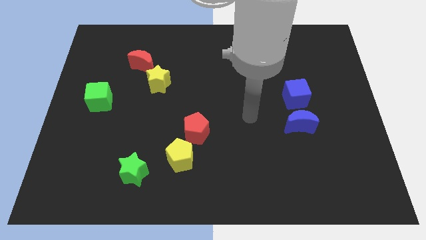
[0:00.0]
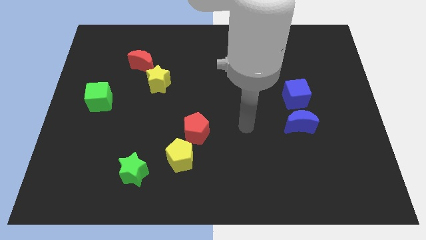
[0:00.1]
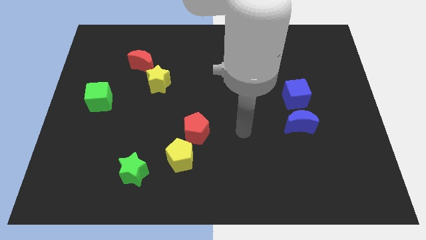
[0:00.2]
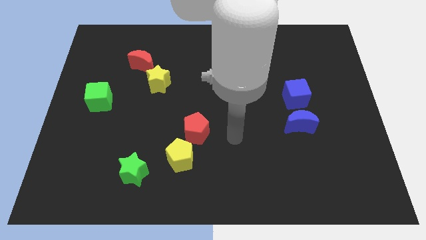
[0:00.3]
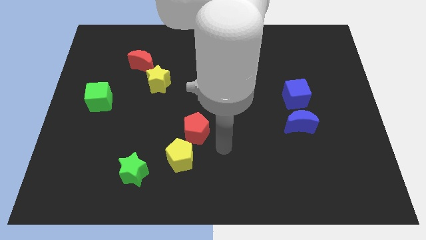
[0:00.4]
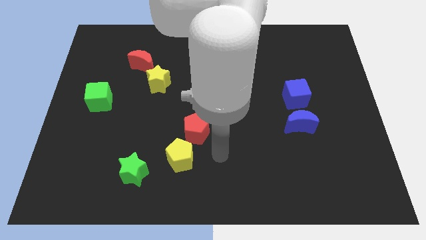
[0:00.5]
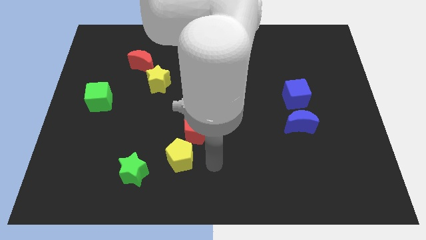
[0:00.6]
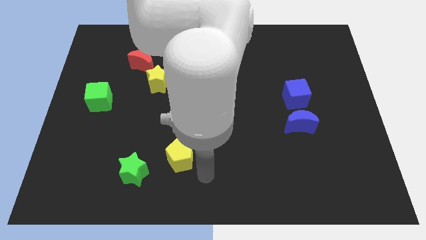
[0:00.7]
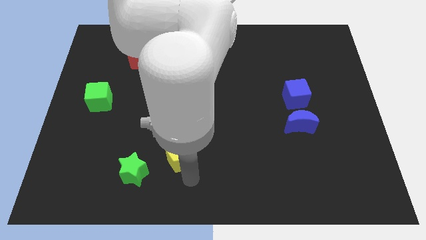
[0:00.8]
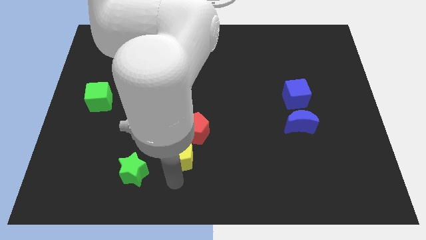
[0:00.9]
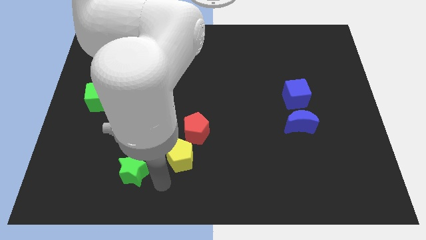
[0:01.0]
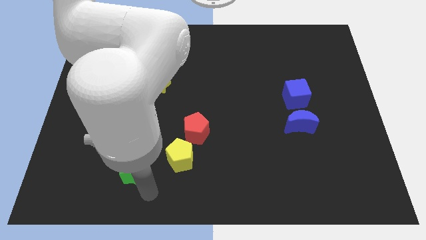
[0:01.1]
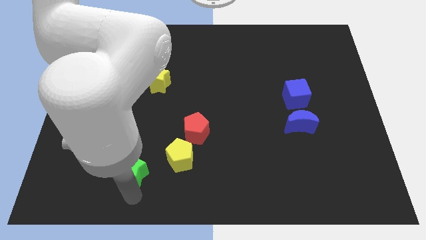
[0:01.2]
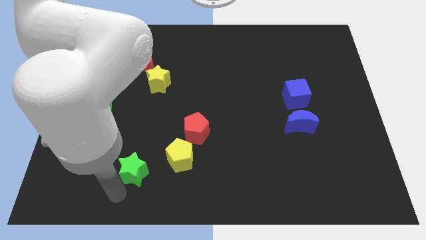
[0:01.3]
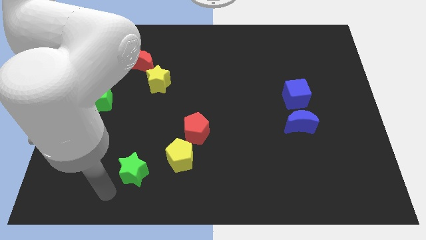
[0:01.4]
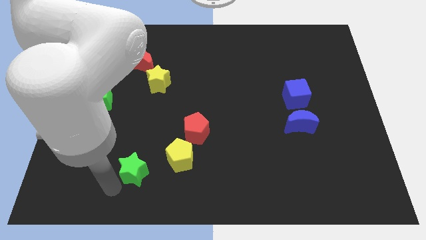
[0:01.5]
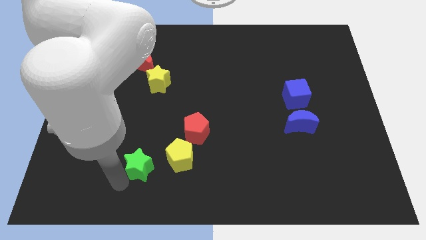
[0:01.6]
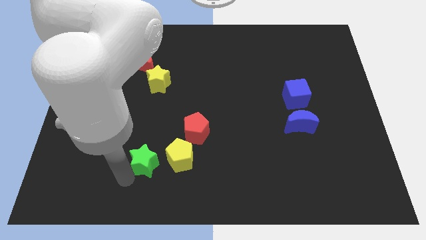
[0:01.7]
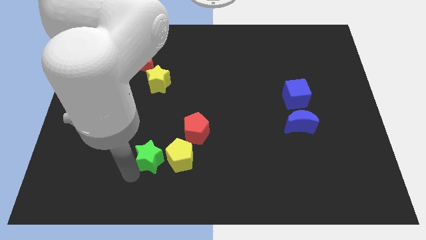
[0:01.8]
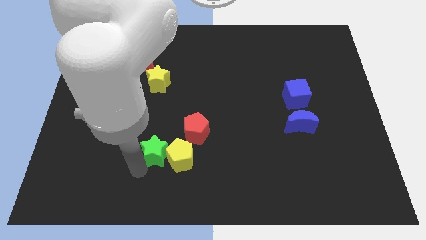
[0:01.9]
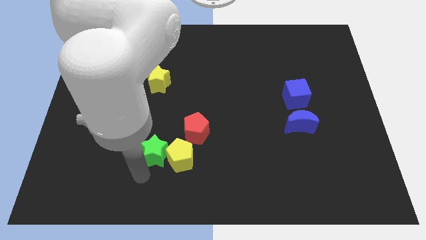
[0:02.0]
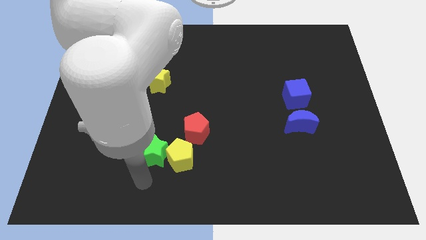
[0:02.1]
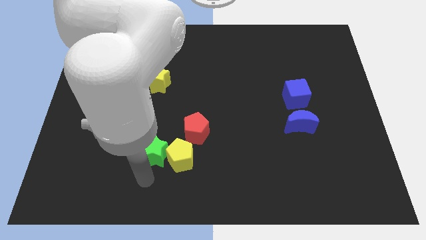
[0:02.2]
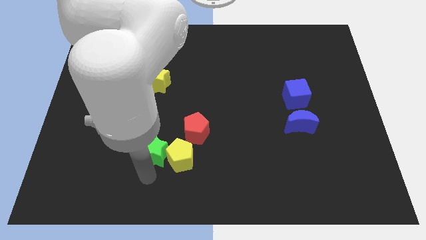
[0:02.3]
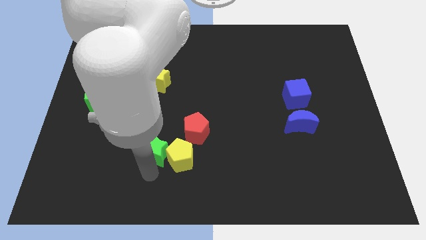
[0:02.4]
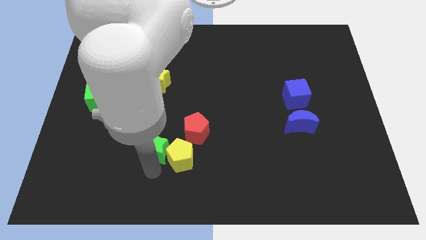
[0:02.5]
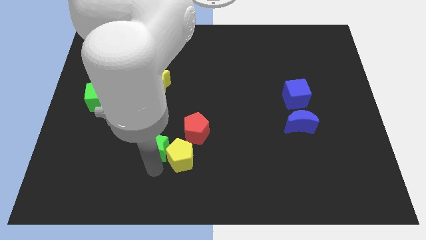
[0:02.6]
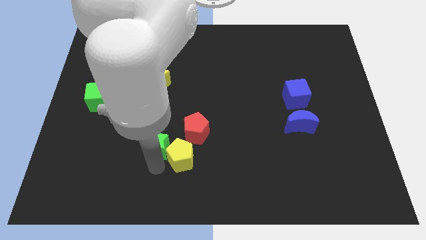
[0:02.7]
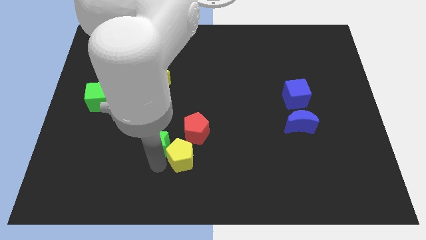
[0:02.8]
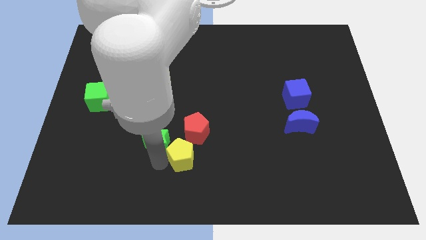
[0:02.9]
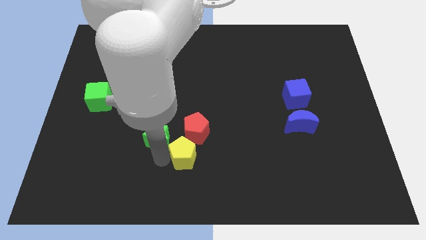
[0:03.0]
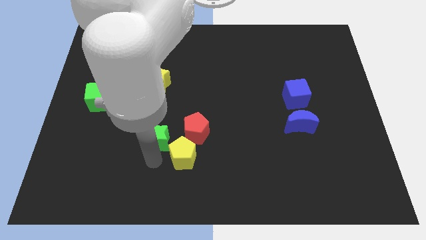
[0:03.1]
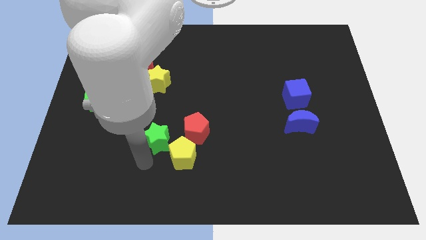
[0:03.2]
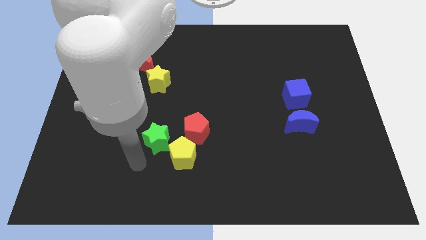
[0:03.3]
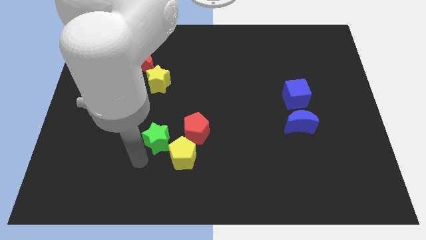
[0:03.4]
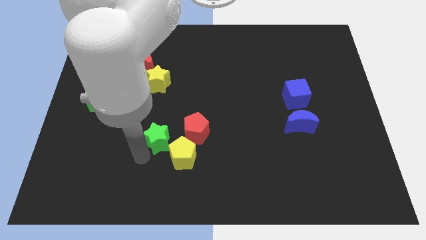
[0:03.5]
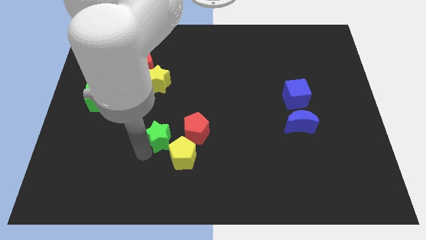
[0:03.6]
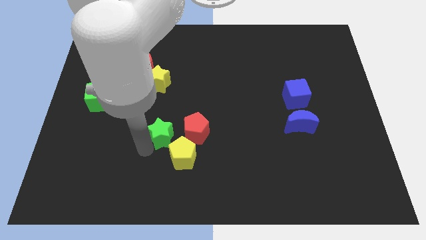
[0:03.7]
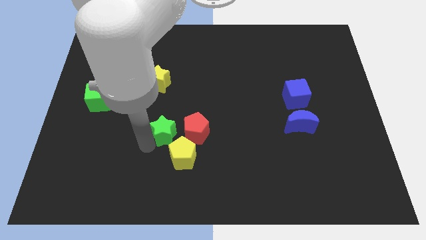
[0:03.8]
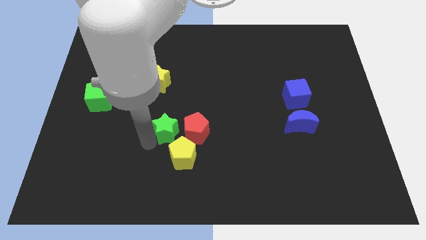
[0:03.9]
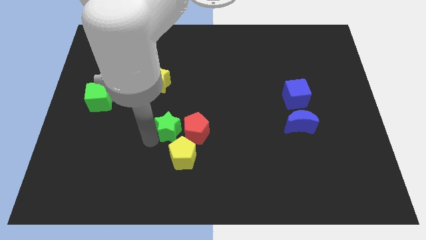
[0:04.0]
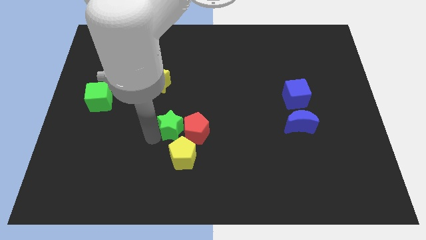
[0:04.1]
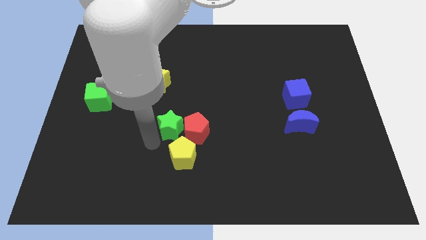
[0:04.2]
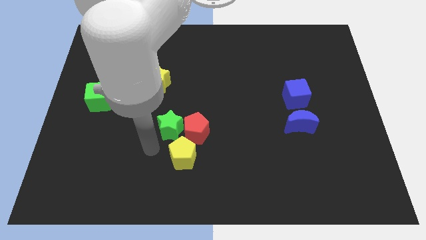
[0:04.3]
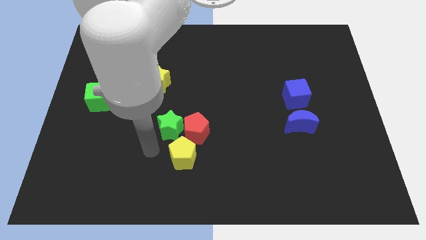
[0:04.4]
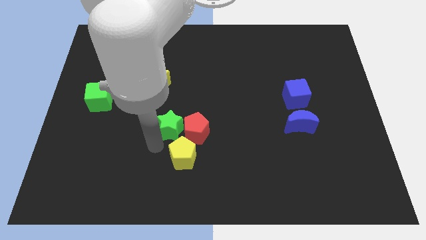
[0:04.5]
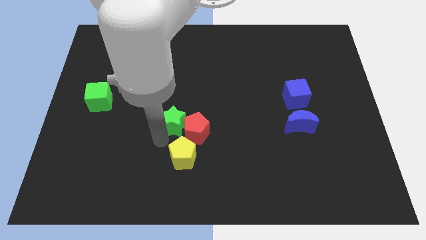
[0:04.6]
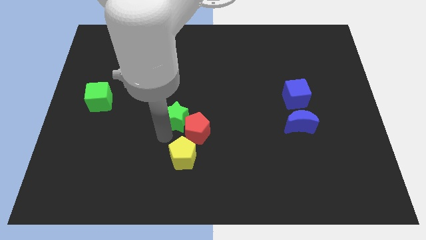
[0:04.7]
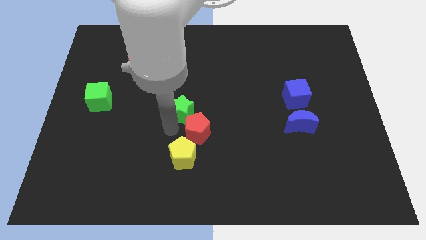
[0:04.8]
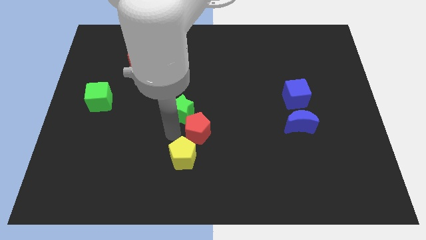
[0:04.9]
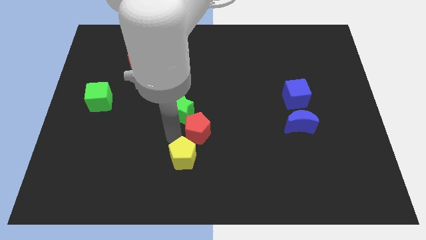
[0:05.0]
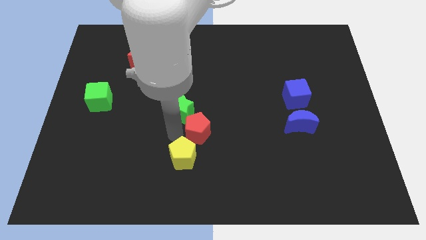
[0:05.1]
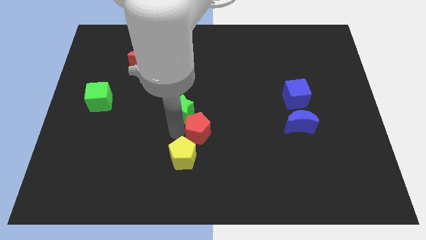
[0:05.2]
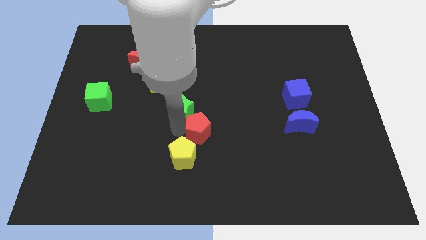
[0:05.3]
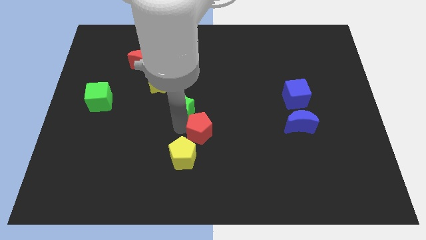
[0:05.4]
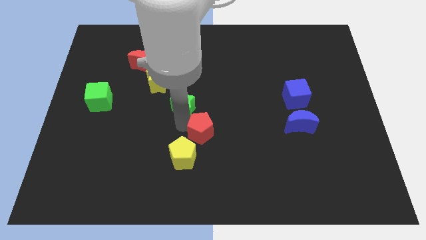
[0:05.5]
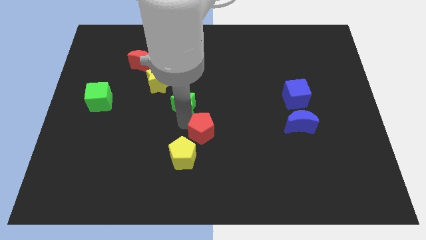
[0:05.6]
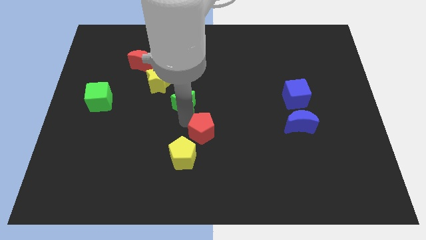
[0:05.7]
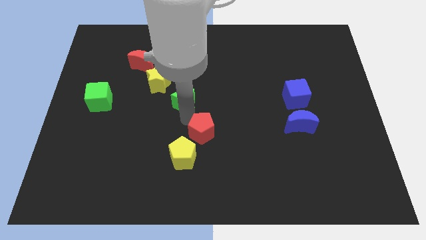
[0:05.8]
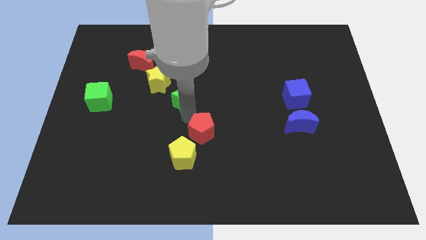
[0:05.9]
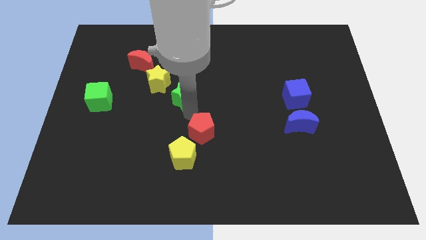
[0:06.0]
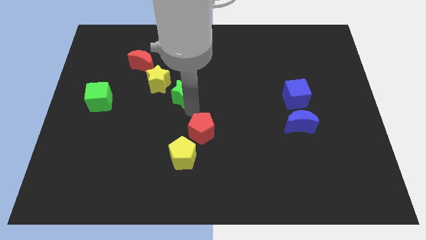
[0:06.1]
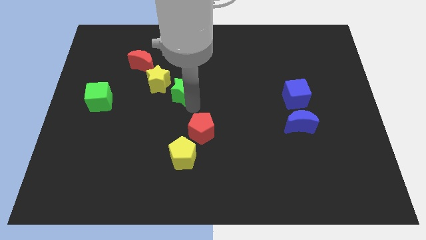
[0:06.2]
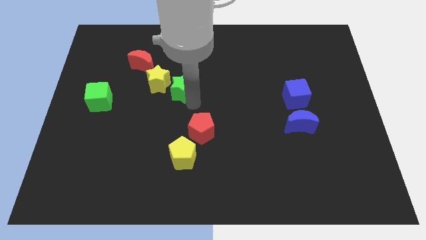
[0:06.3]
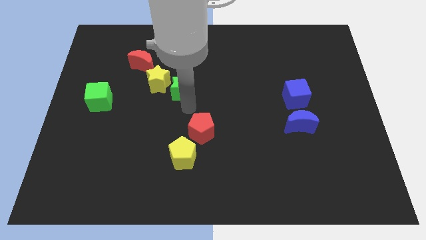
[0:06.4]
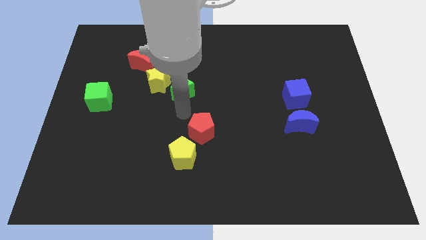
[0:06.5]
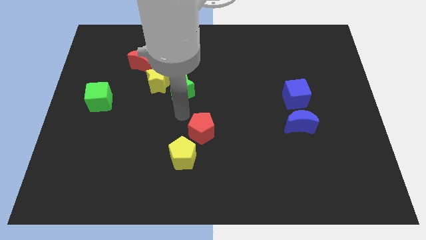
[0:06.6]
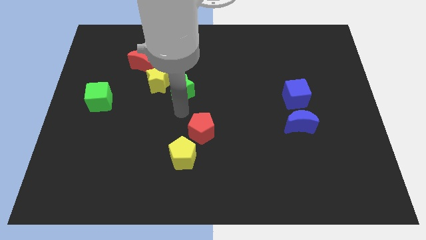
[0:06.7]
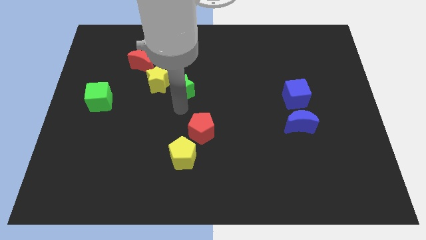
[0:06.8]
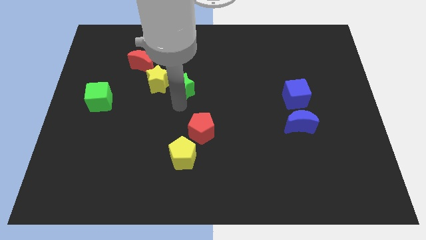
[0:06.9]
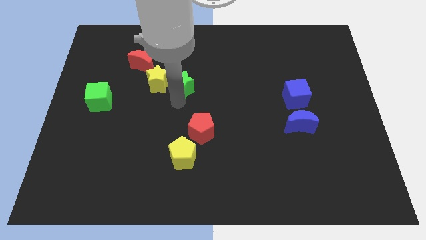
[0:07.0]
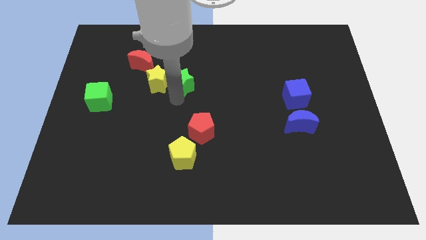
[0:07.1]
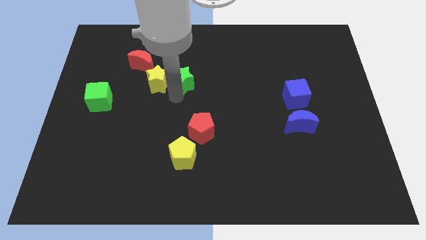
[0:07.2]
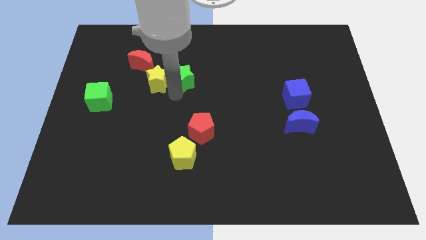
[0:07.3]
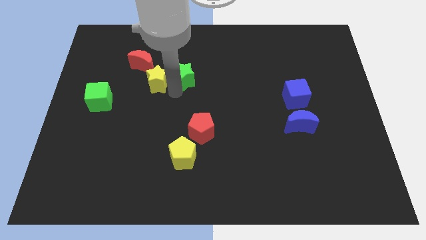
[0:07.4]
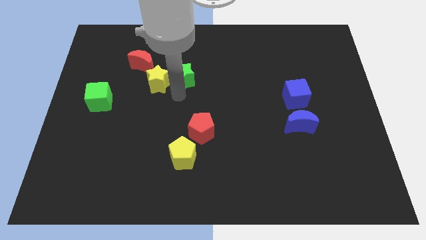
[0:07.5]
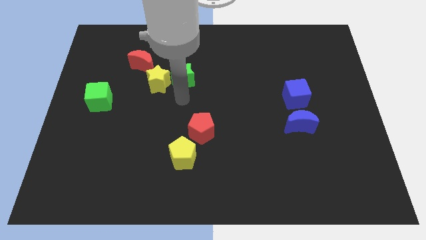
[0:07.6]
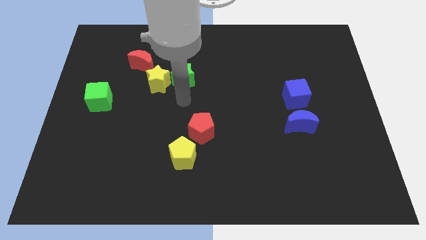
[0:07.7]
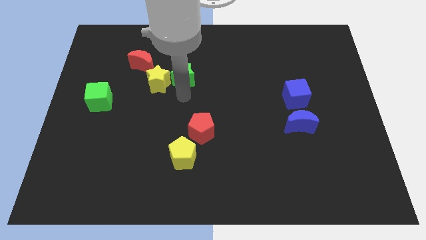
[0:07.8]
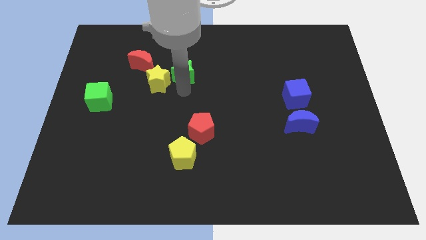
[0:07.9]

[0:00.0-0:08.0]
move the green star to the right of the red moon
